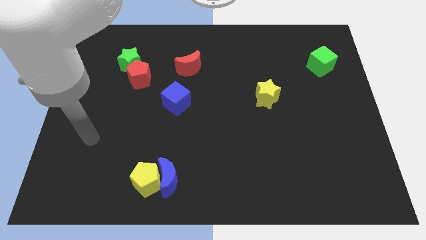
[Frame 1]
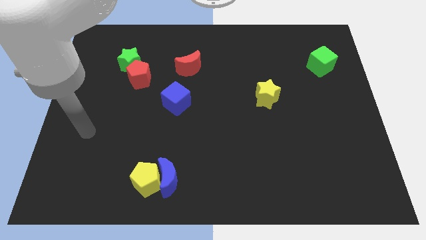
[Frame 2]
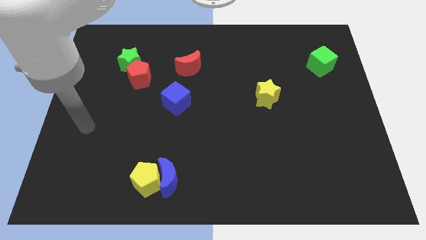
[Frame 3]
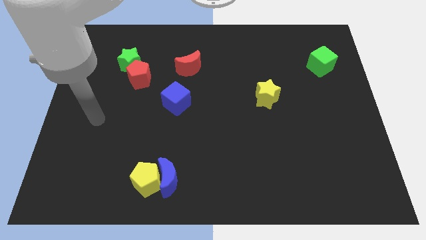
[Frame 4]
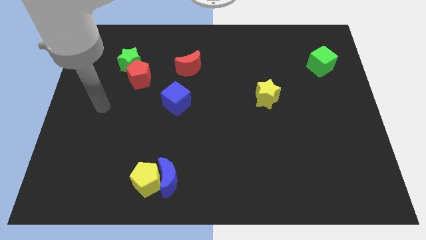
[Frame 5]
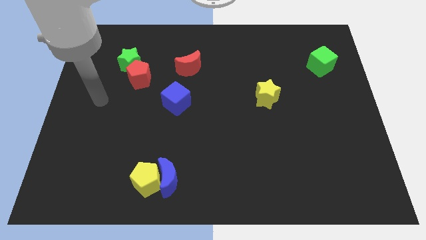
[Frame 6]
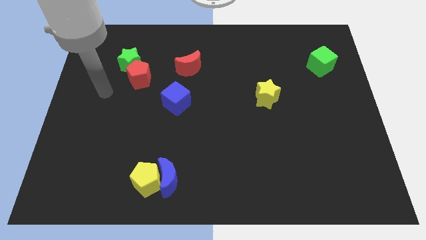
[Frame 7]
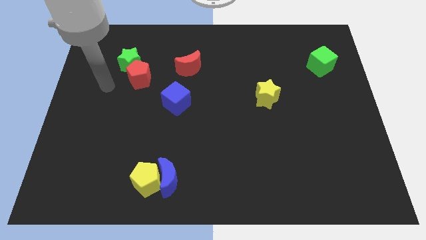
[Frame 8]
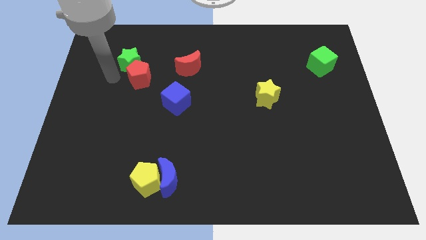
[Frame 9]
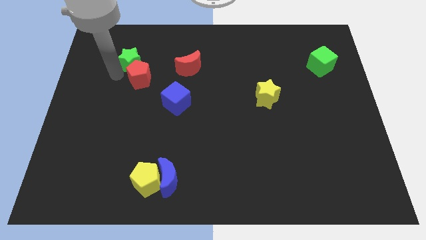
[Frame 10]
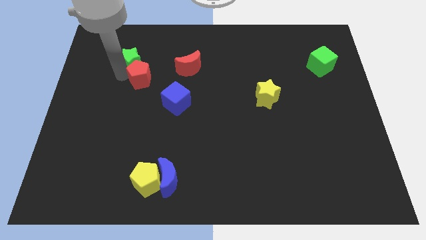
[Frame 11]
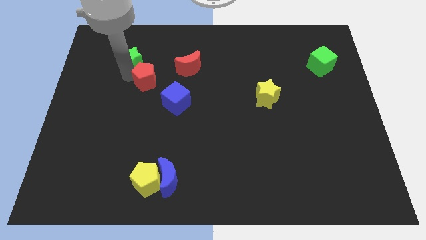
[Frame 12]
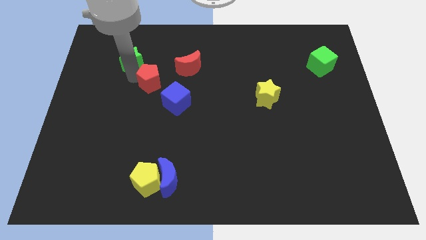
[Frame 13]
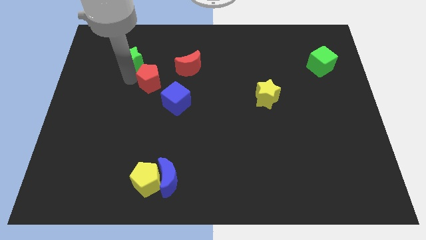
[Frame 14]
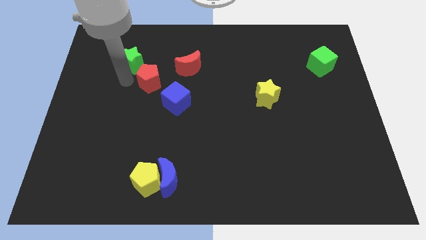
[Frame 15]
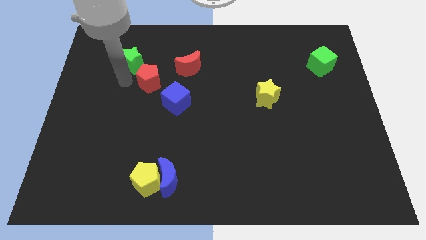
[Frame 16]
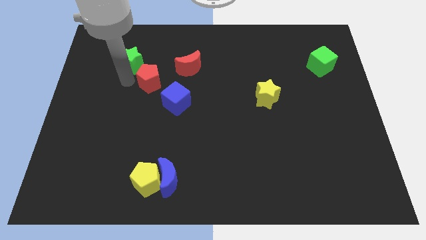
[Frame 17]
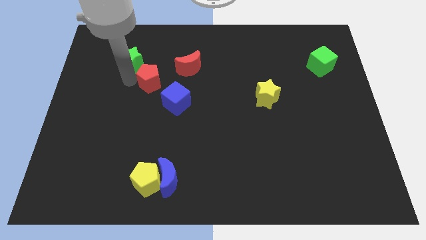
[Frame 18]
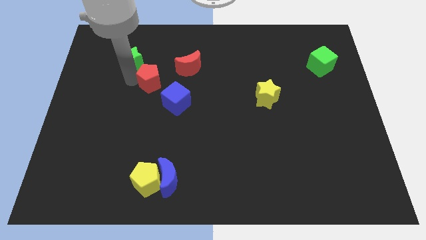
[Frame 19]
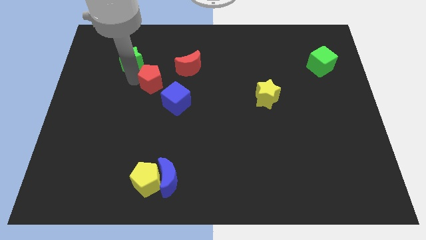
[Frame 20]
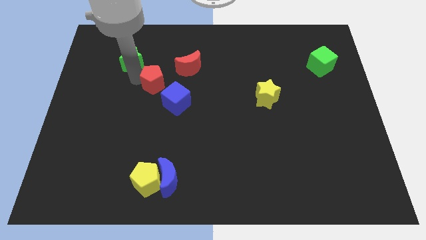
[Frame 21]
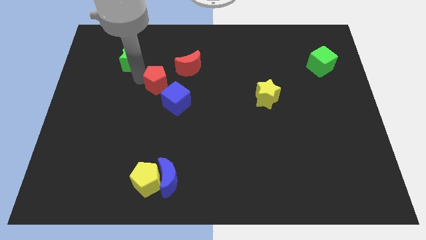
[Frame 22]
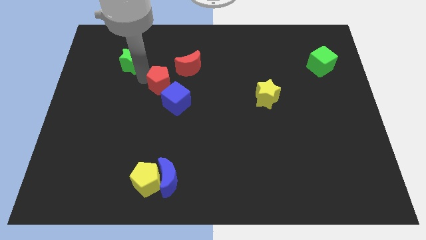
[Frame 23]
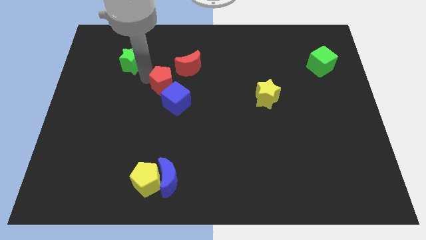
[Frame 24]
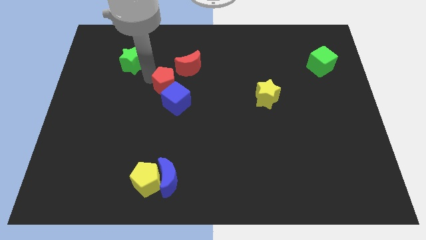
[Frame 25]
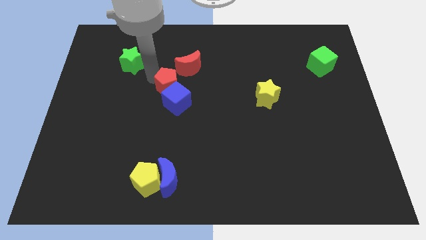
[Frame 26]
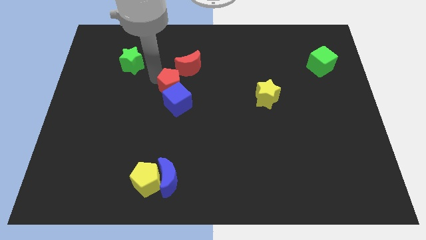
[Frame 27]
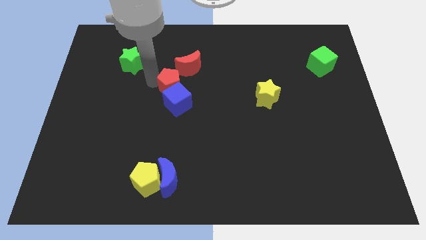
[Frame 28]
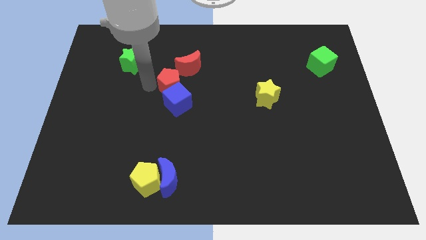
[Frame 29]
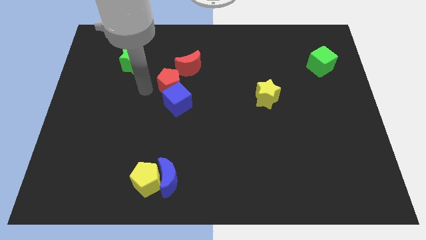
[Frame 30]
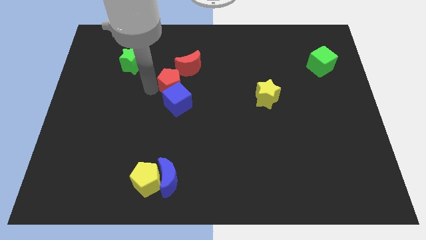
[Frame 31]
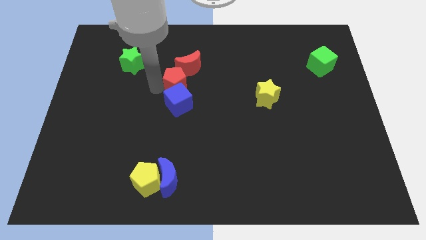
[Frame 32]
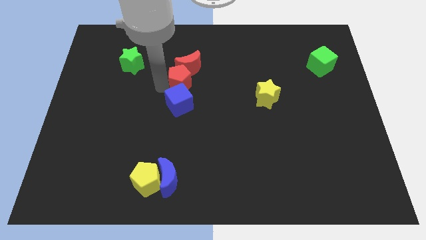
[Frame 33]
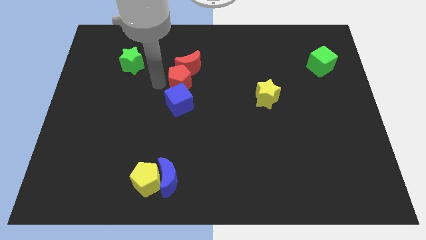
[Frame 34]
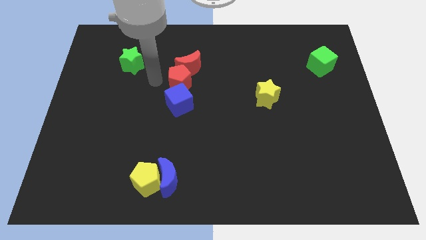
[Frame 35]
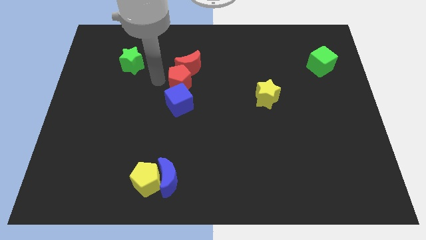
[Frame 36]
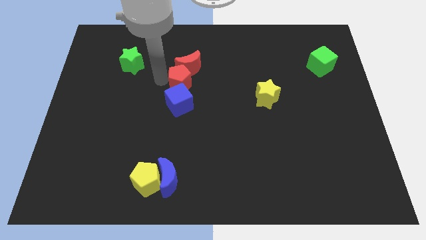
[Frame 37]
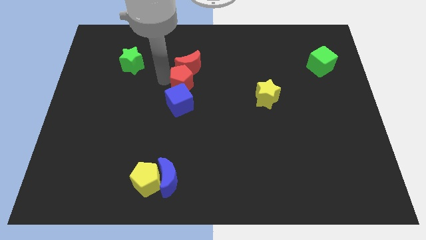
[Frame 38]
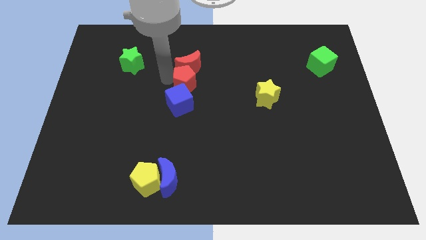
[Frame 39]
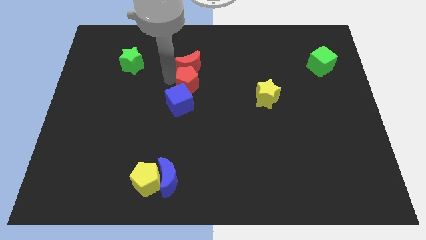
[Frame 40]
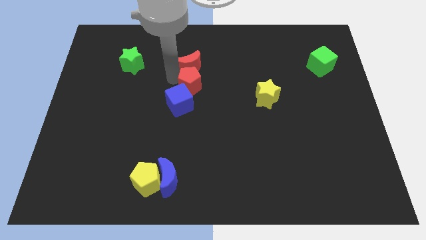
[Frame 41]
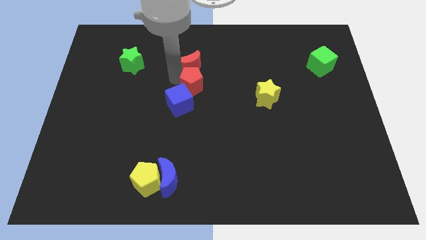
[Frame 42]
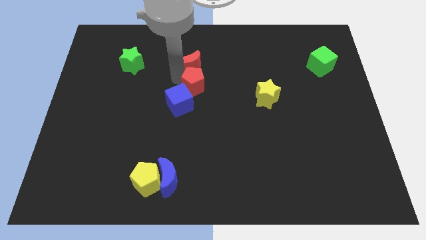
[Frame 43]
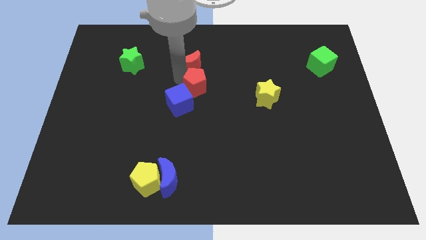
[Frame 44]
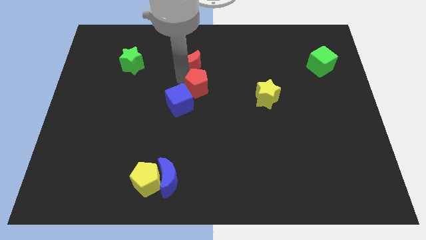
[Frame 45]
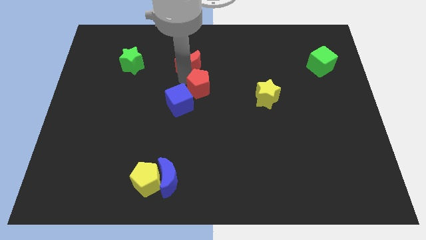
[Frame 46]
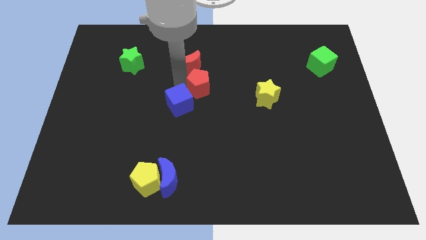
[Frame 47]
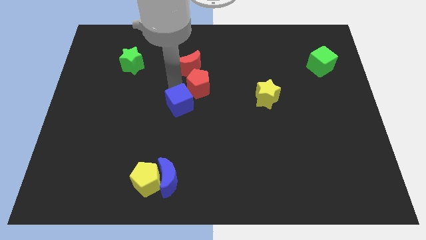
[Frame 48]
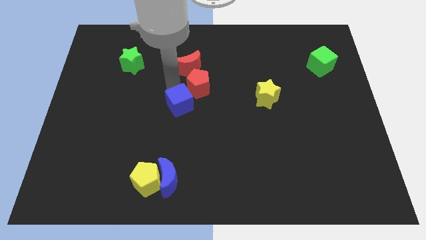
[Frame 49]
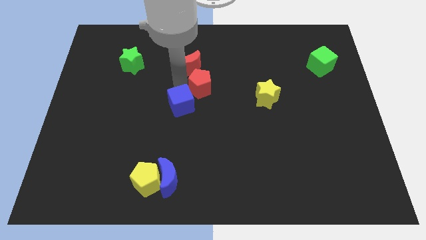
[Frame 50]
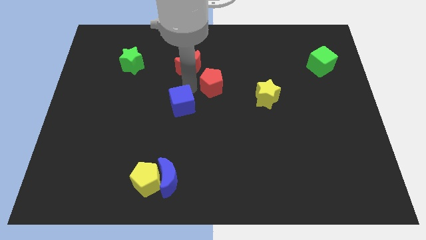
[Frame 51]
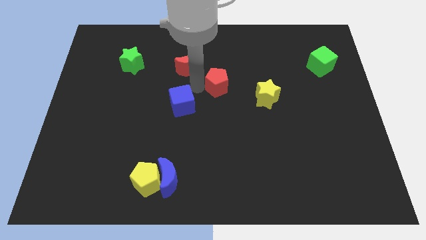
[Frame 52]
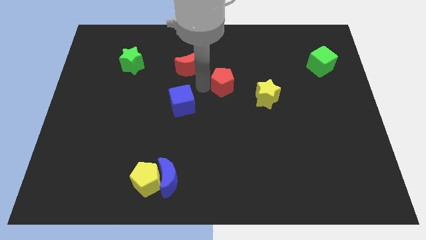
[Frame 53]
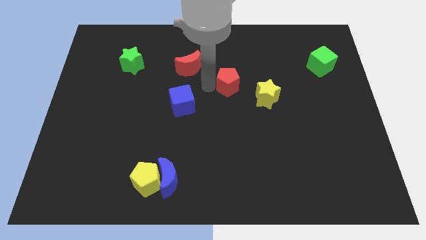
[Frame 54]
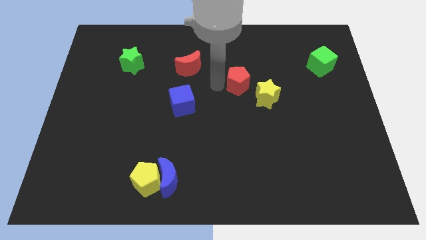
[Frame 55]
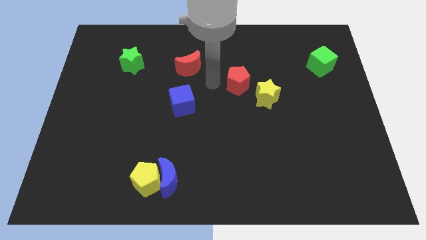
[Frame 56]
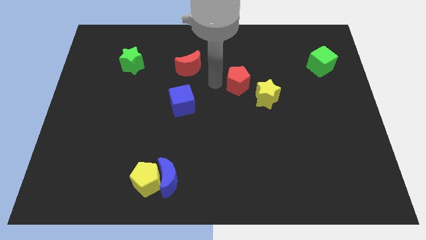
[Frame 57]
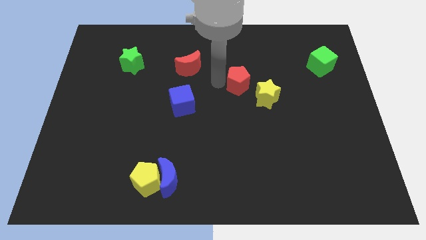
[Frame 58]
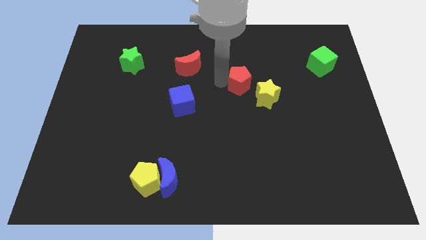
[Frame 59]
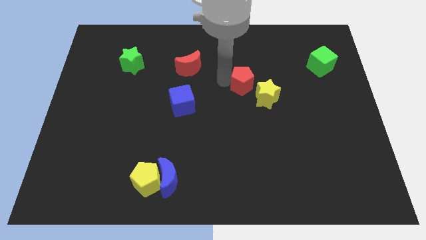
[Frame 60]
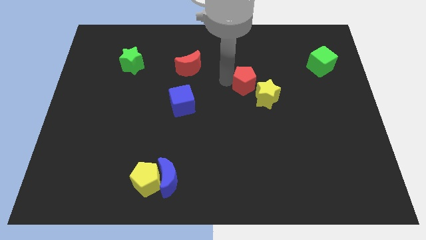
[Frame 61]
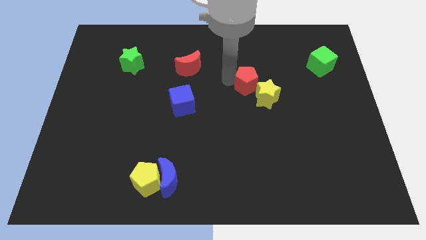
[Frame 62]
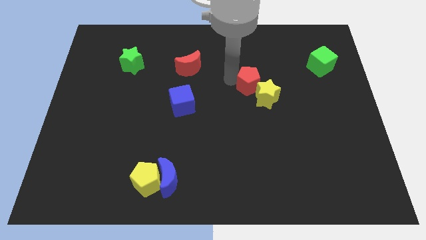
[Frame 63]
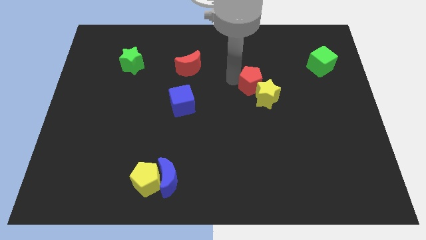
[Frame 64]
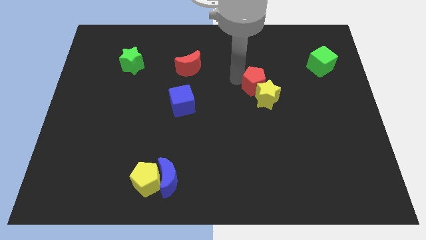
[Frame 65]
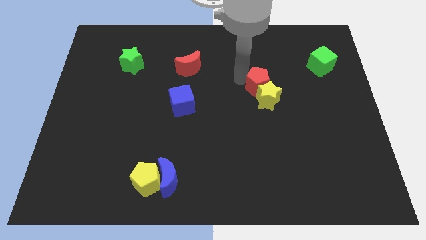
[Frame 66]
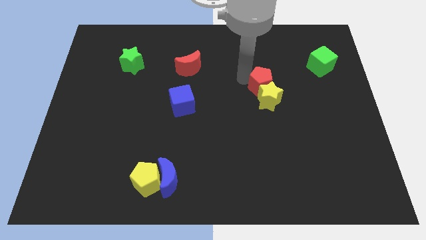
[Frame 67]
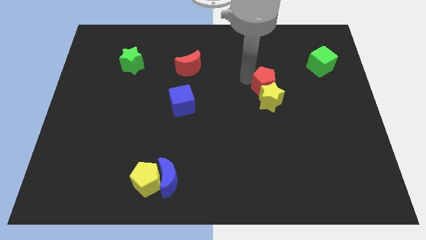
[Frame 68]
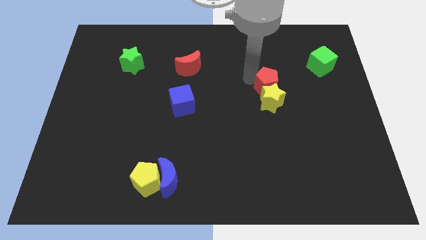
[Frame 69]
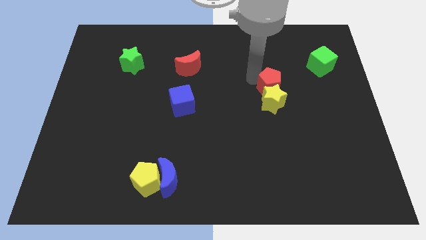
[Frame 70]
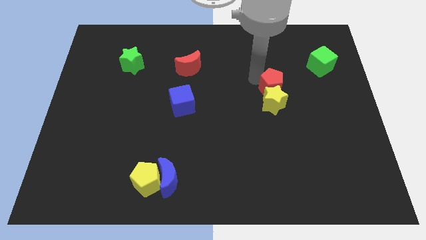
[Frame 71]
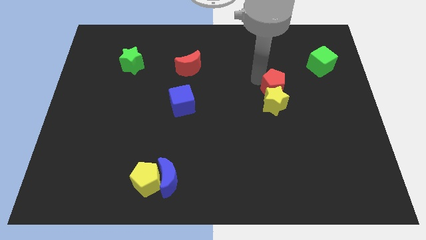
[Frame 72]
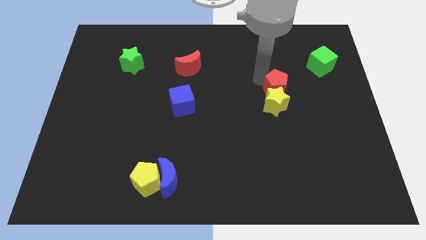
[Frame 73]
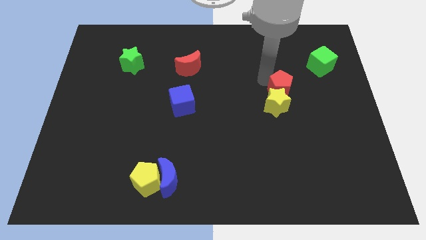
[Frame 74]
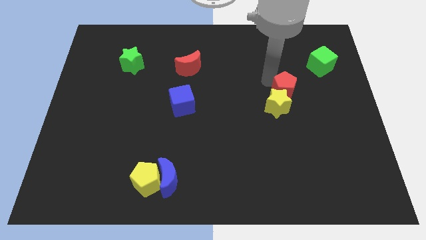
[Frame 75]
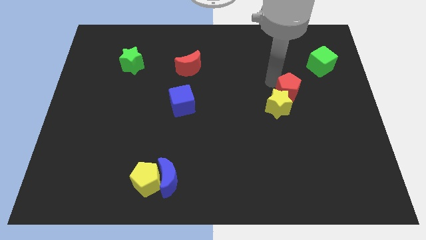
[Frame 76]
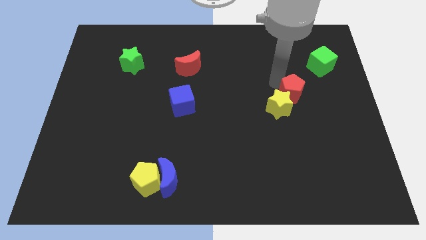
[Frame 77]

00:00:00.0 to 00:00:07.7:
push the red pentagon just right of the yellow star
